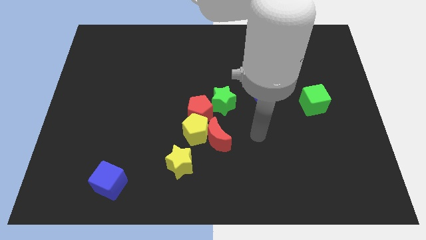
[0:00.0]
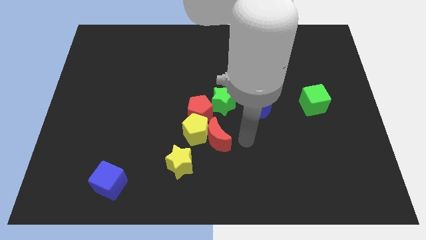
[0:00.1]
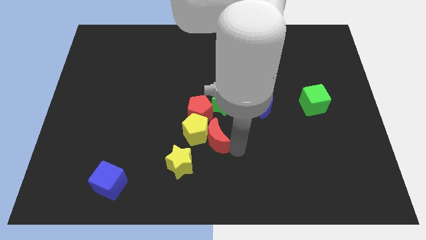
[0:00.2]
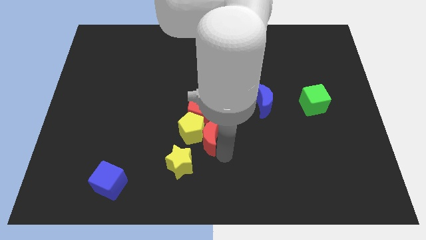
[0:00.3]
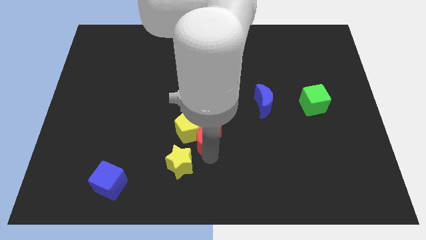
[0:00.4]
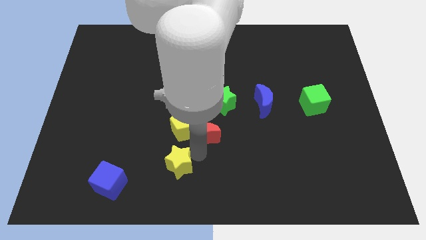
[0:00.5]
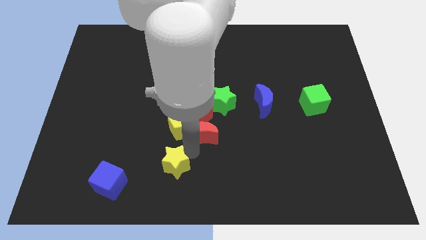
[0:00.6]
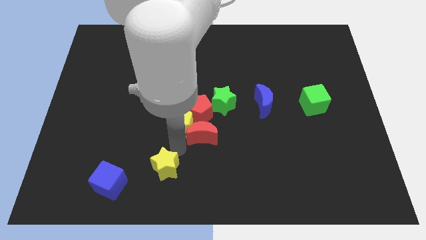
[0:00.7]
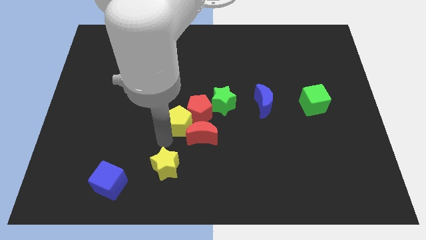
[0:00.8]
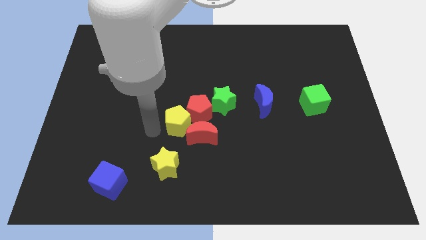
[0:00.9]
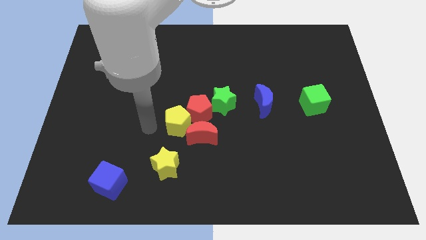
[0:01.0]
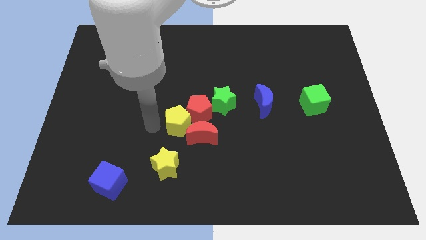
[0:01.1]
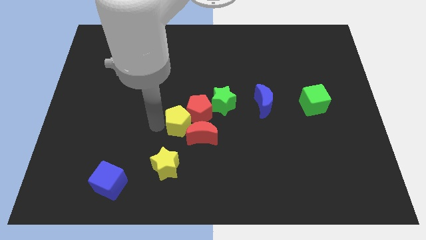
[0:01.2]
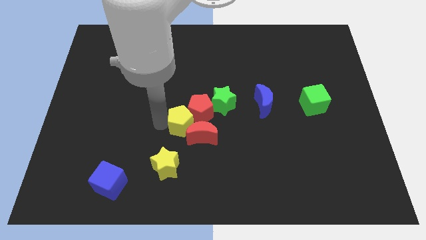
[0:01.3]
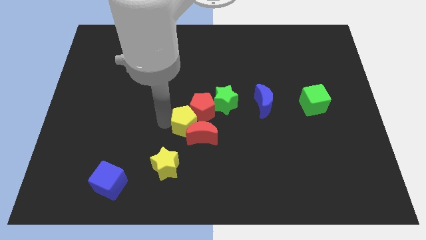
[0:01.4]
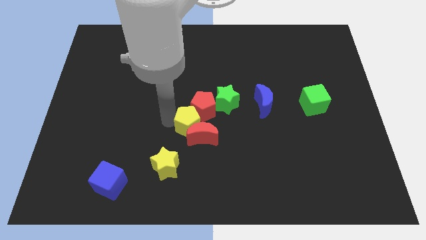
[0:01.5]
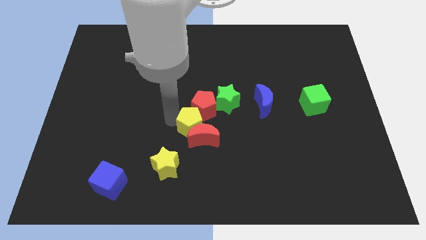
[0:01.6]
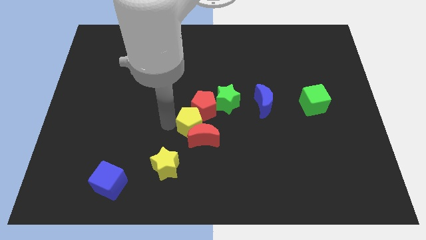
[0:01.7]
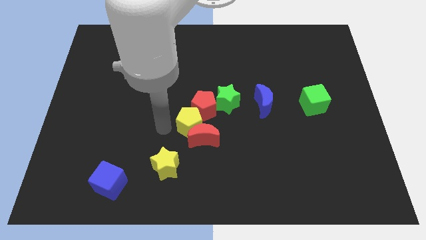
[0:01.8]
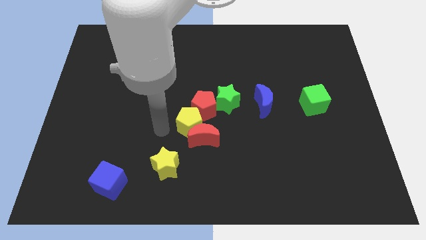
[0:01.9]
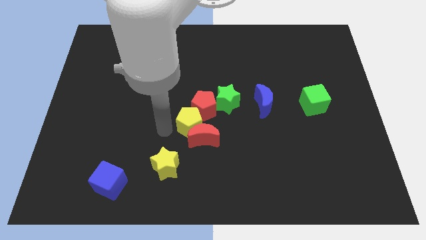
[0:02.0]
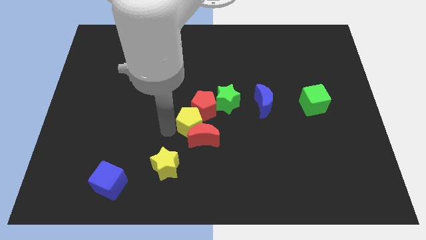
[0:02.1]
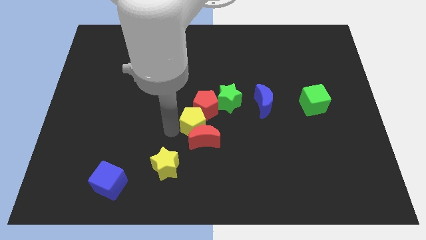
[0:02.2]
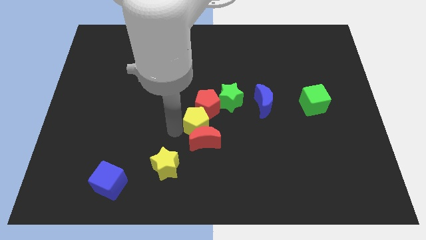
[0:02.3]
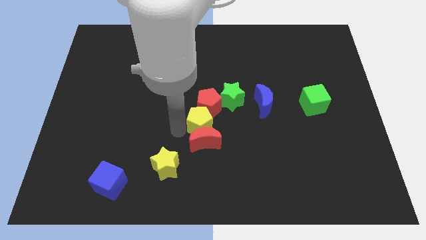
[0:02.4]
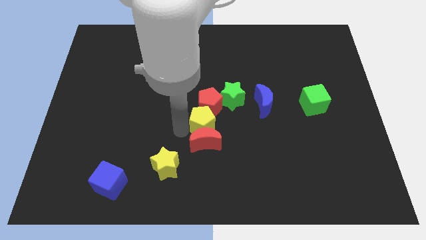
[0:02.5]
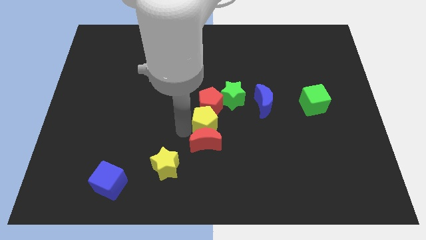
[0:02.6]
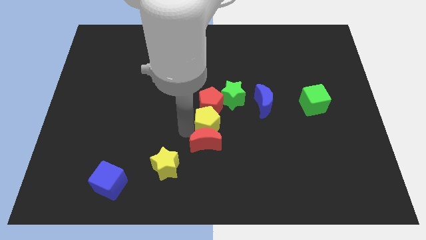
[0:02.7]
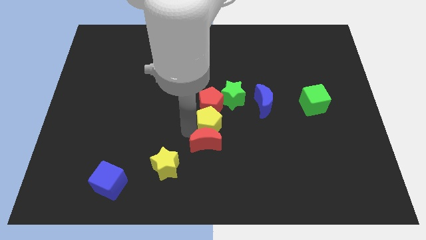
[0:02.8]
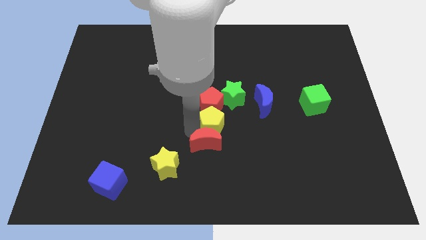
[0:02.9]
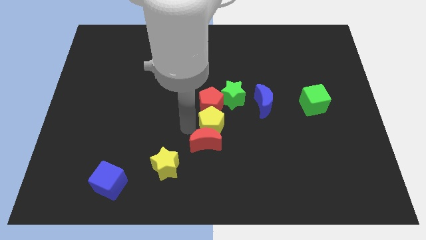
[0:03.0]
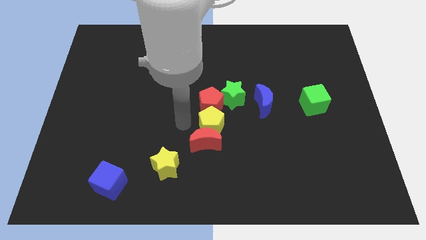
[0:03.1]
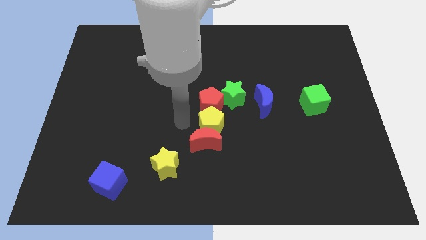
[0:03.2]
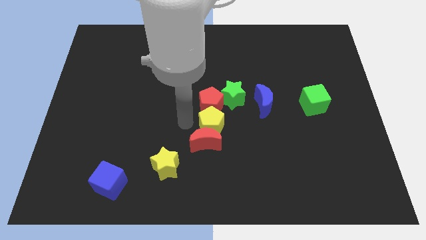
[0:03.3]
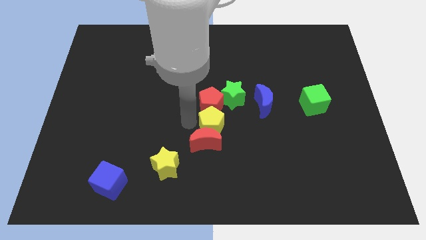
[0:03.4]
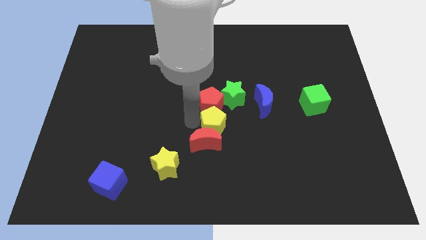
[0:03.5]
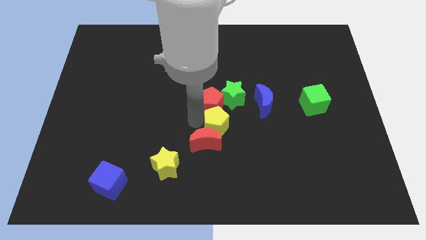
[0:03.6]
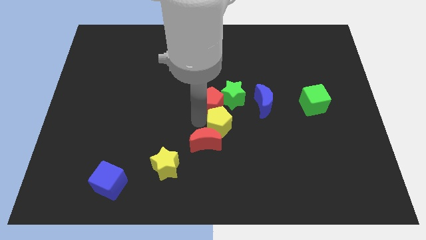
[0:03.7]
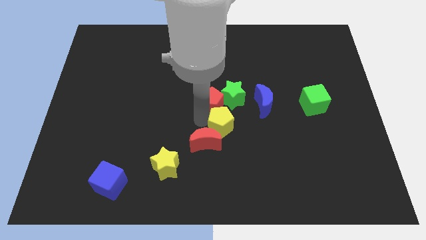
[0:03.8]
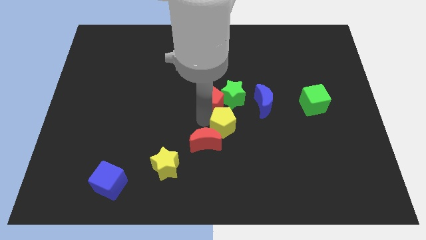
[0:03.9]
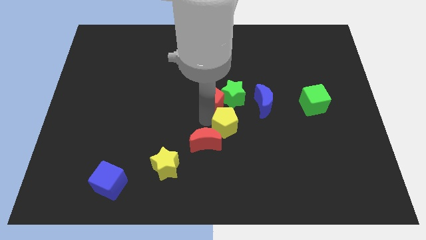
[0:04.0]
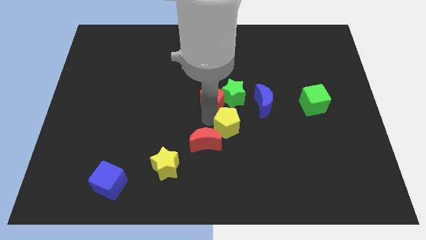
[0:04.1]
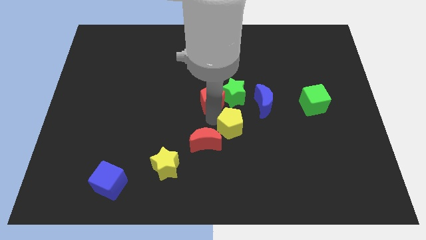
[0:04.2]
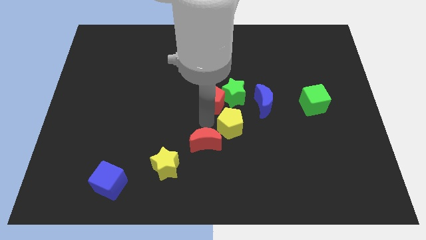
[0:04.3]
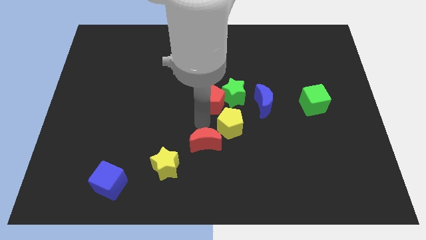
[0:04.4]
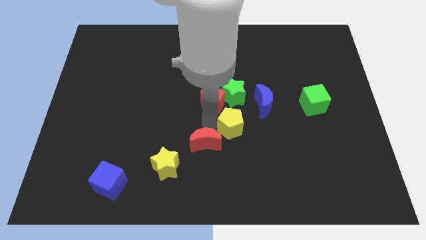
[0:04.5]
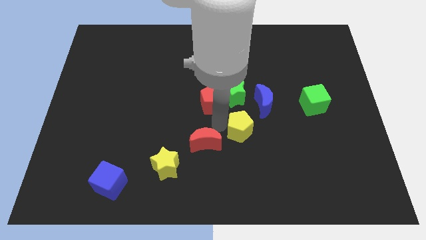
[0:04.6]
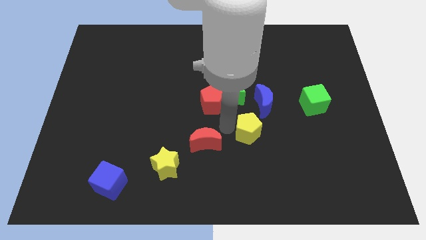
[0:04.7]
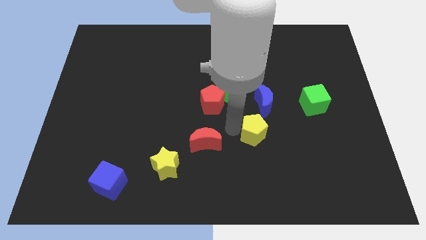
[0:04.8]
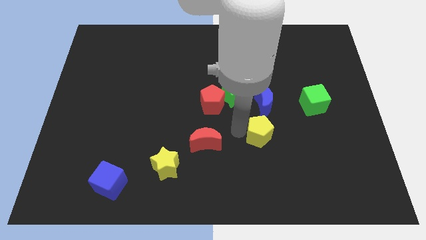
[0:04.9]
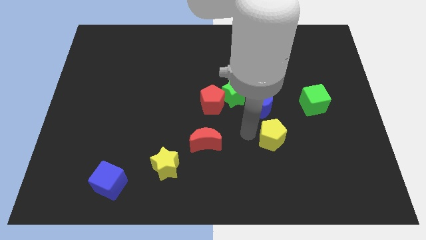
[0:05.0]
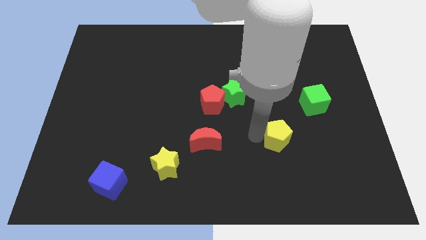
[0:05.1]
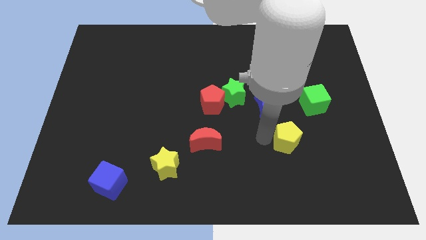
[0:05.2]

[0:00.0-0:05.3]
move the yellow pentagon to the right

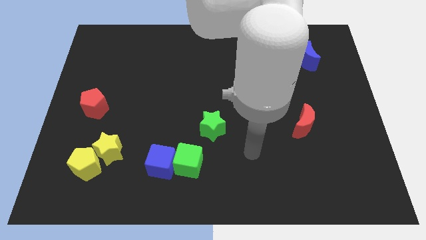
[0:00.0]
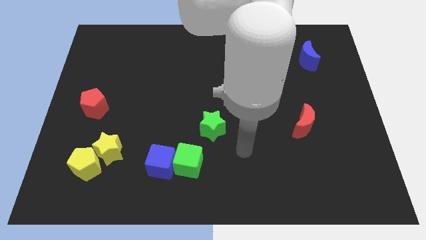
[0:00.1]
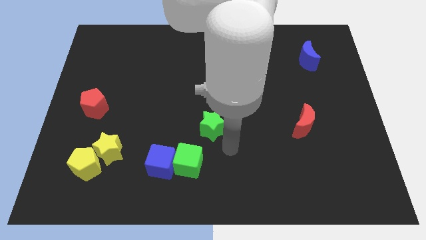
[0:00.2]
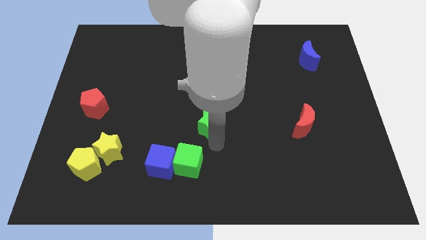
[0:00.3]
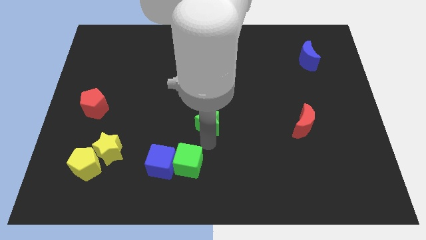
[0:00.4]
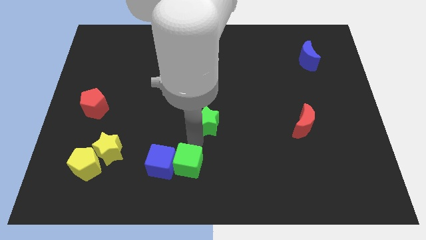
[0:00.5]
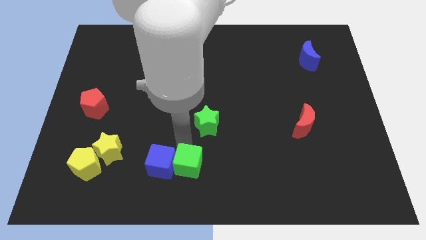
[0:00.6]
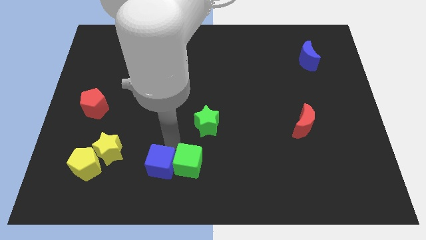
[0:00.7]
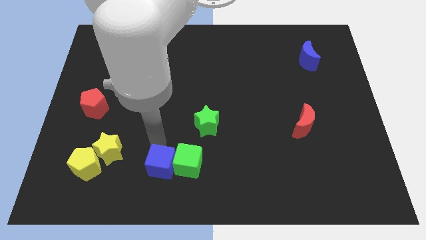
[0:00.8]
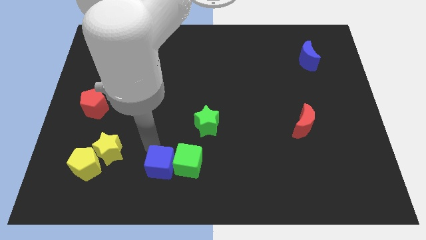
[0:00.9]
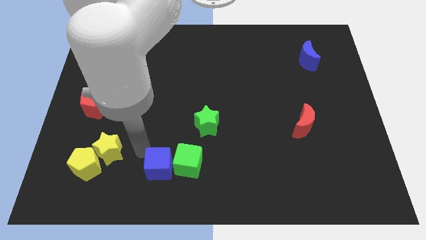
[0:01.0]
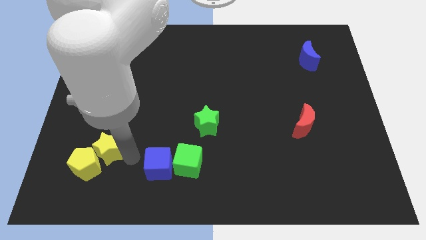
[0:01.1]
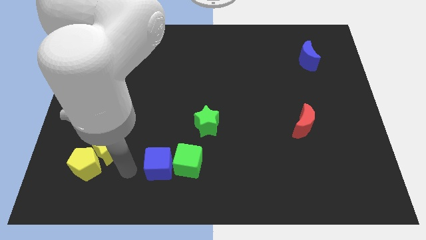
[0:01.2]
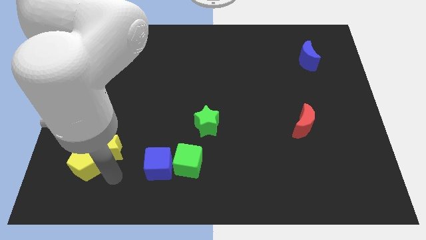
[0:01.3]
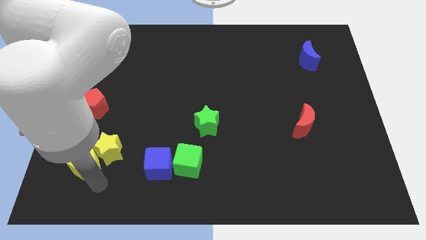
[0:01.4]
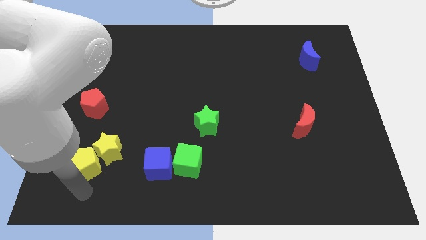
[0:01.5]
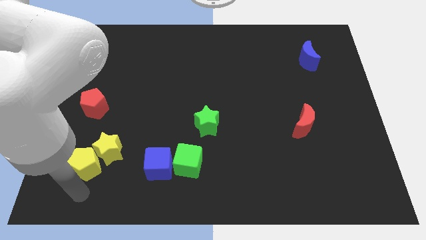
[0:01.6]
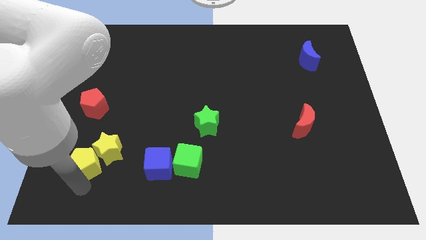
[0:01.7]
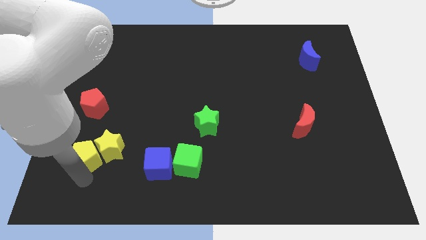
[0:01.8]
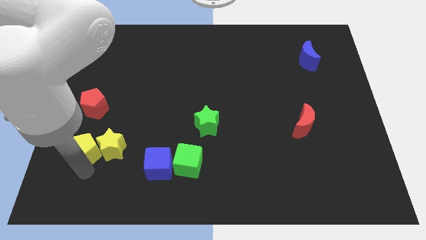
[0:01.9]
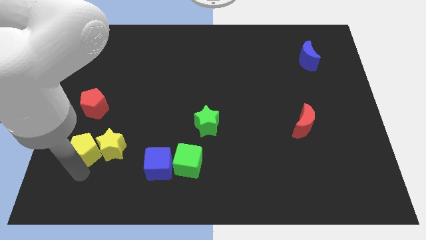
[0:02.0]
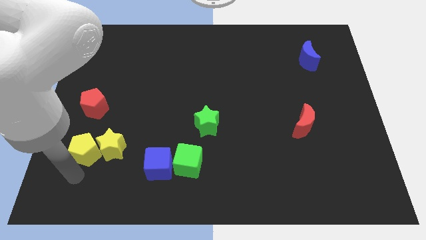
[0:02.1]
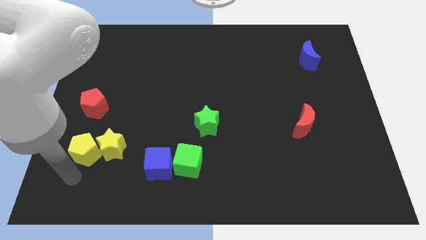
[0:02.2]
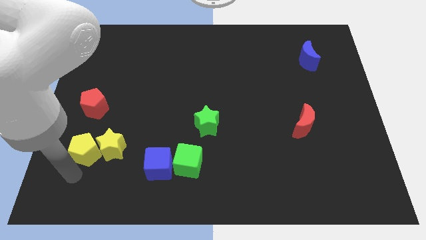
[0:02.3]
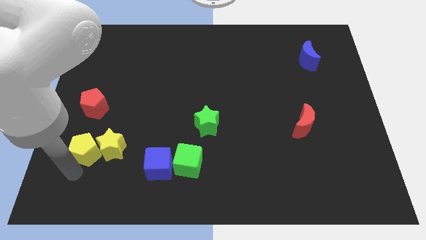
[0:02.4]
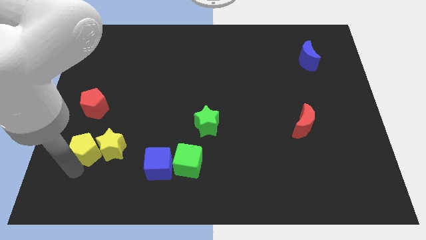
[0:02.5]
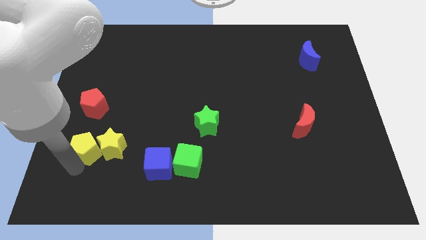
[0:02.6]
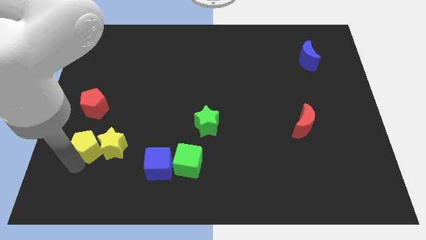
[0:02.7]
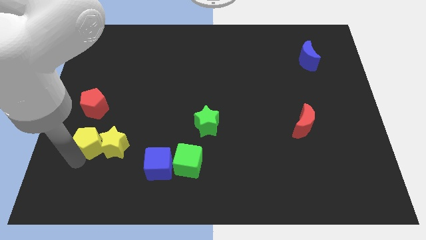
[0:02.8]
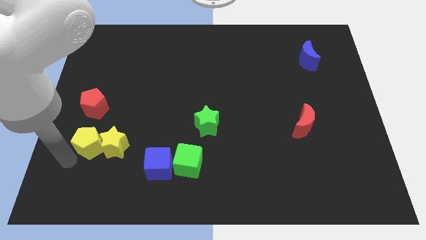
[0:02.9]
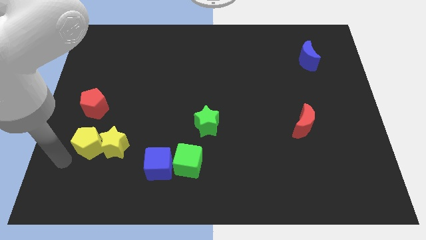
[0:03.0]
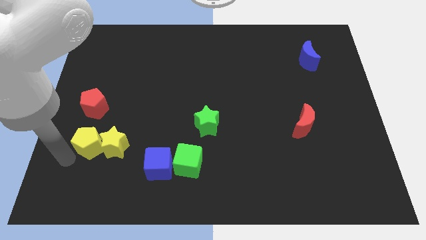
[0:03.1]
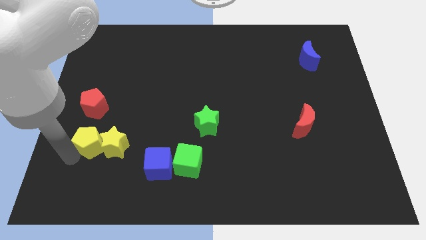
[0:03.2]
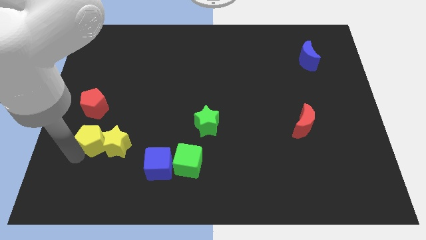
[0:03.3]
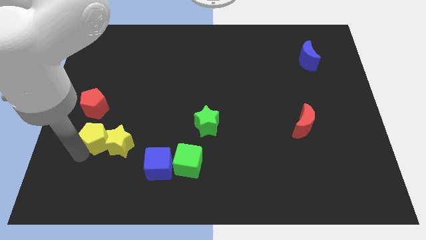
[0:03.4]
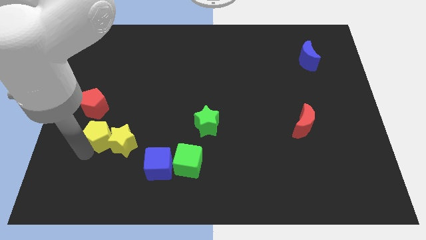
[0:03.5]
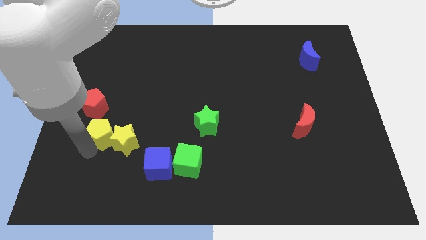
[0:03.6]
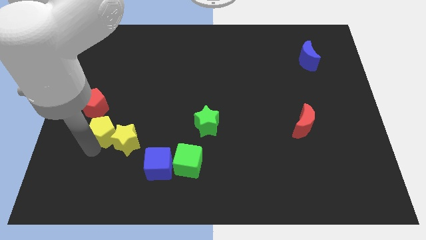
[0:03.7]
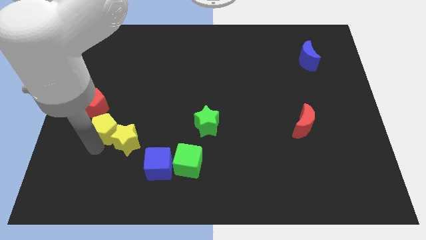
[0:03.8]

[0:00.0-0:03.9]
move the yellow pentagon up and to the right a little
